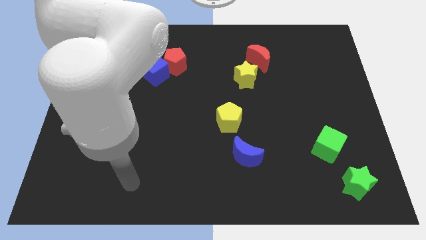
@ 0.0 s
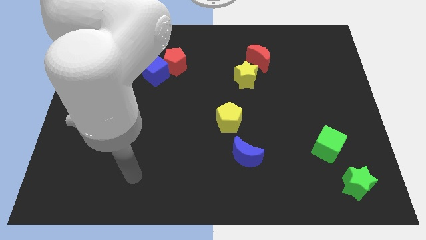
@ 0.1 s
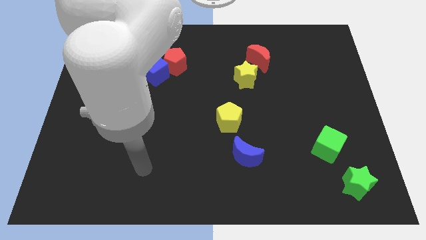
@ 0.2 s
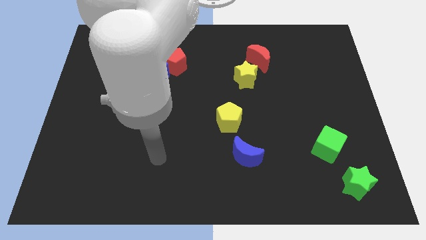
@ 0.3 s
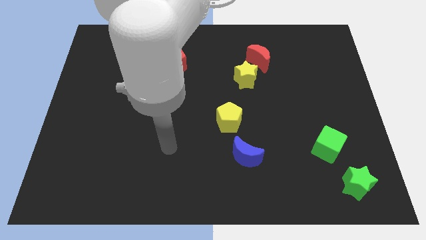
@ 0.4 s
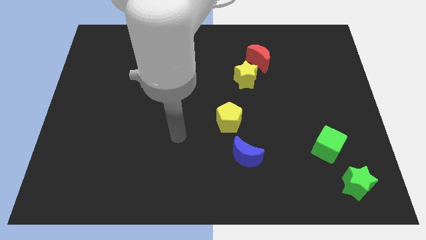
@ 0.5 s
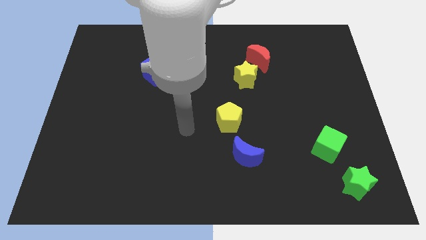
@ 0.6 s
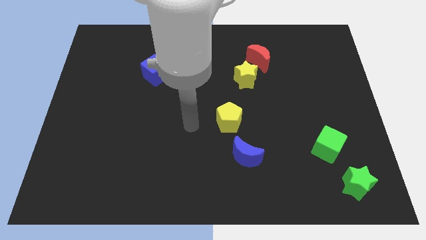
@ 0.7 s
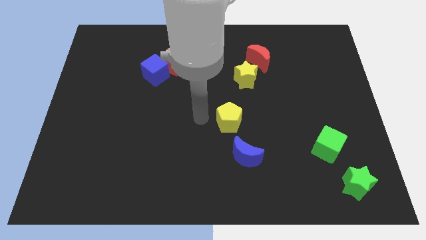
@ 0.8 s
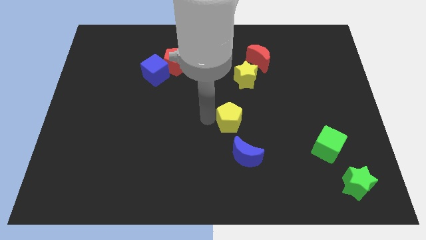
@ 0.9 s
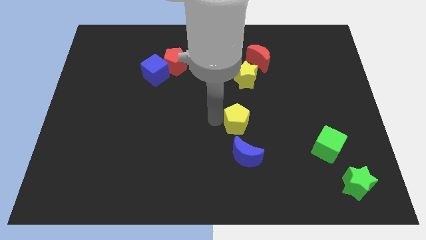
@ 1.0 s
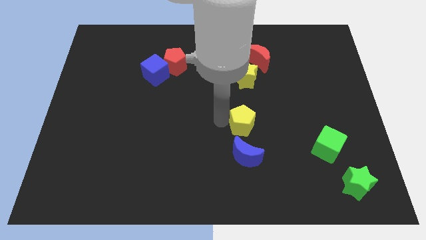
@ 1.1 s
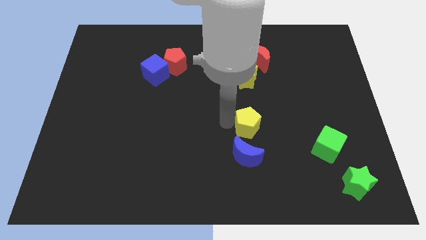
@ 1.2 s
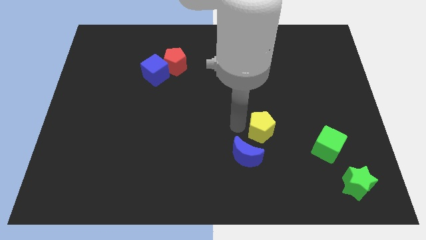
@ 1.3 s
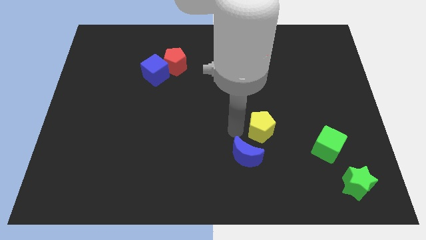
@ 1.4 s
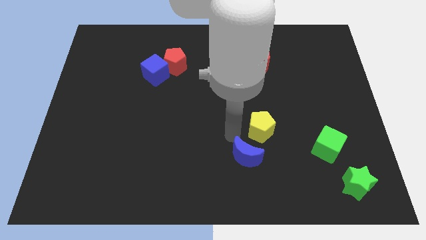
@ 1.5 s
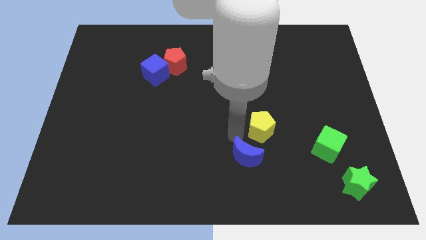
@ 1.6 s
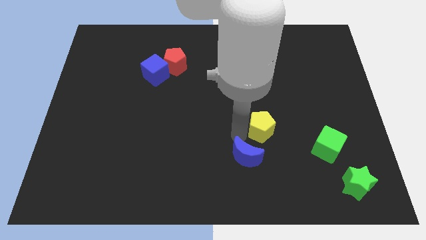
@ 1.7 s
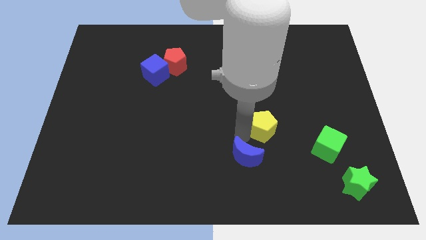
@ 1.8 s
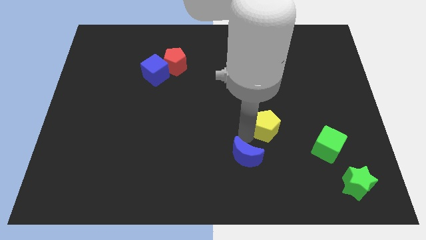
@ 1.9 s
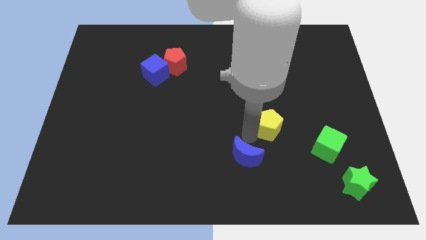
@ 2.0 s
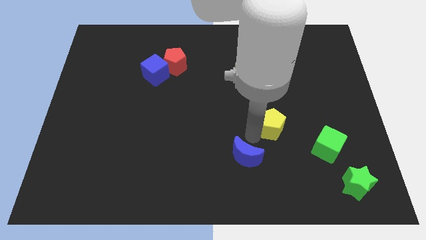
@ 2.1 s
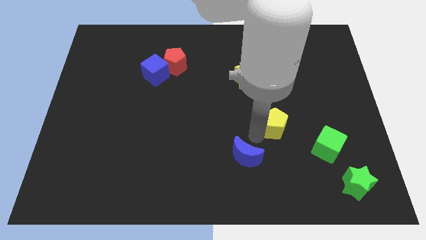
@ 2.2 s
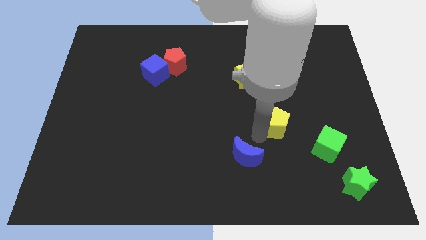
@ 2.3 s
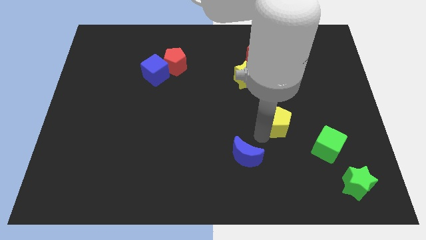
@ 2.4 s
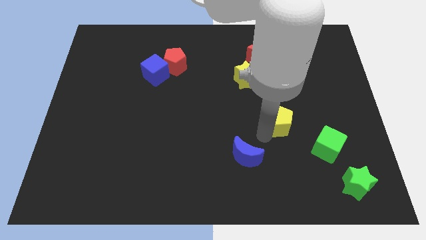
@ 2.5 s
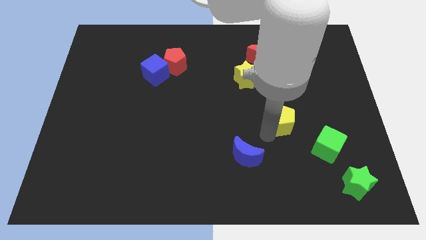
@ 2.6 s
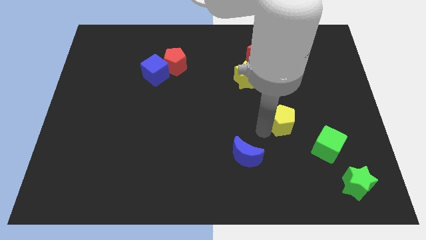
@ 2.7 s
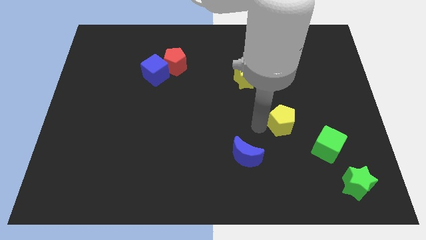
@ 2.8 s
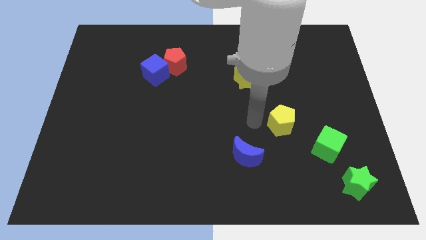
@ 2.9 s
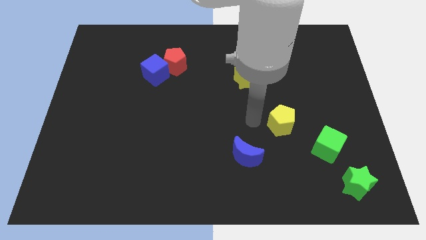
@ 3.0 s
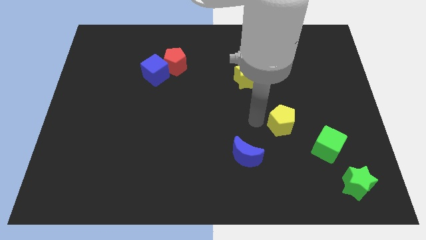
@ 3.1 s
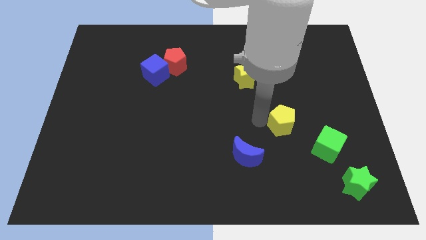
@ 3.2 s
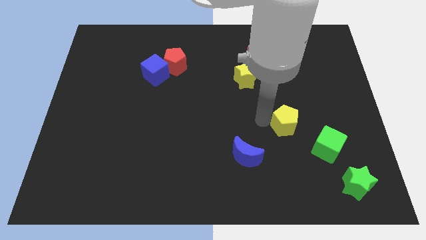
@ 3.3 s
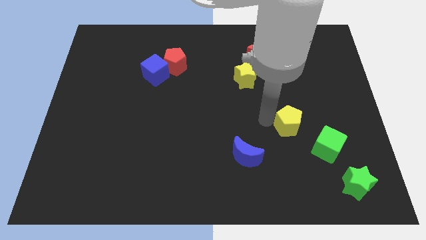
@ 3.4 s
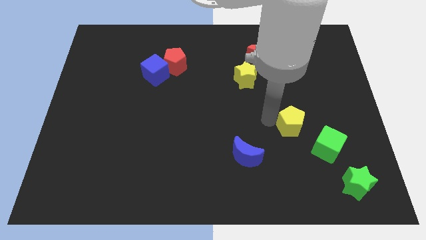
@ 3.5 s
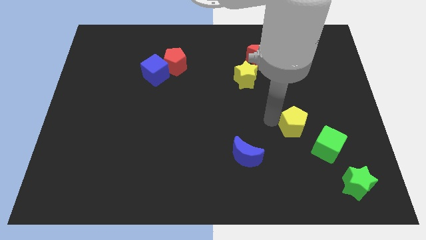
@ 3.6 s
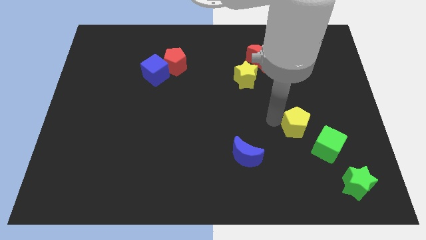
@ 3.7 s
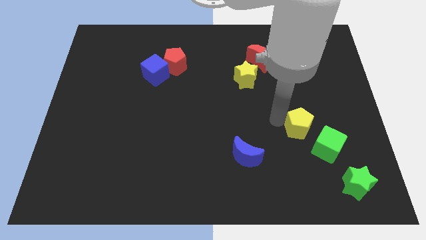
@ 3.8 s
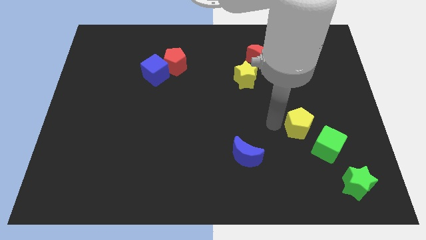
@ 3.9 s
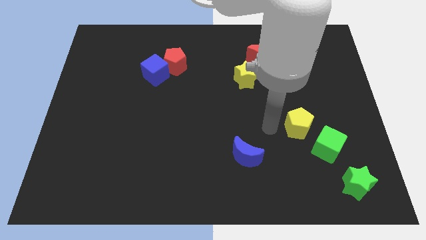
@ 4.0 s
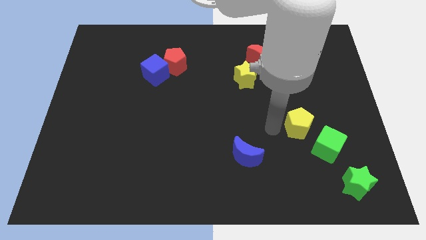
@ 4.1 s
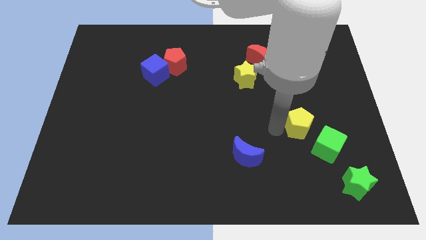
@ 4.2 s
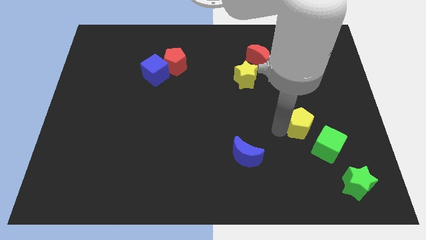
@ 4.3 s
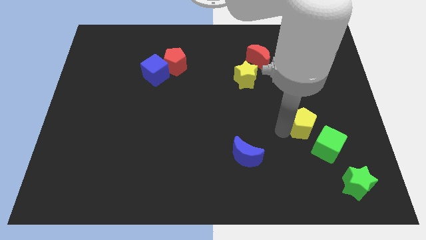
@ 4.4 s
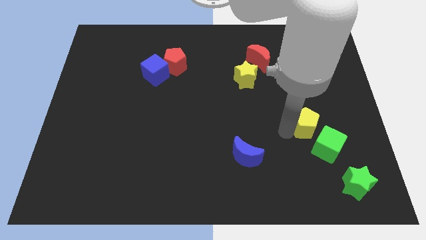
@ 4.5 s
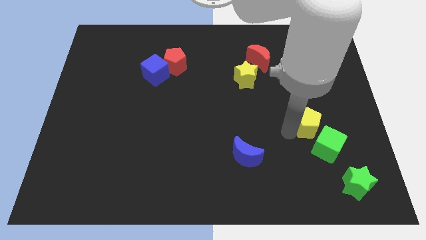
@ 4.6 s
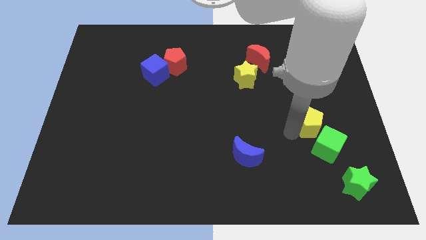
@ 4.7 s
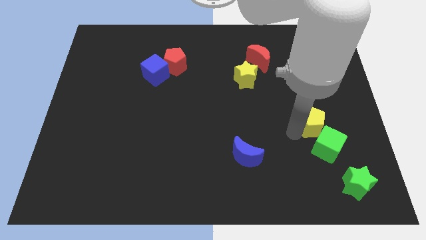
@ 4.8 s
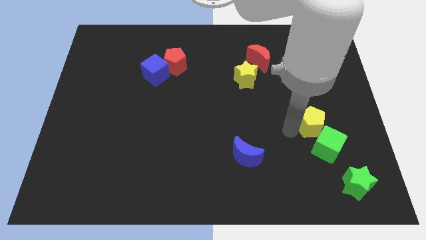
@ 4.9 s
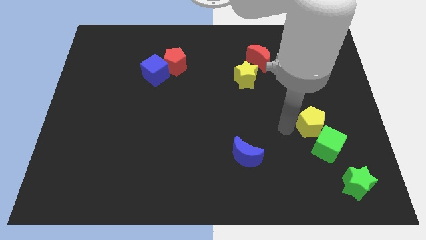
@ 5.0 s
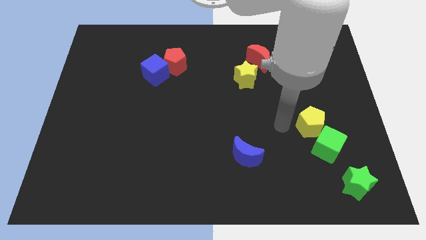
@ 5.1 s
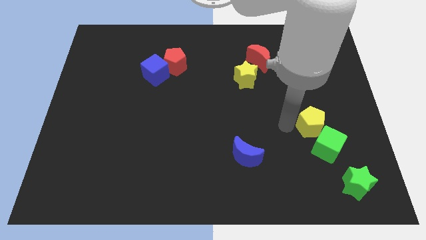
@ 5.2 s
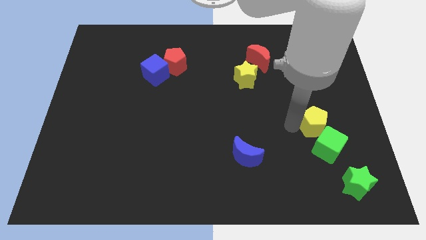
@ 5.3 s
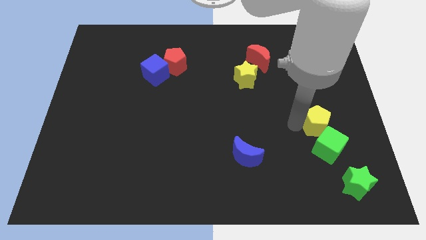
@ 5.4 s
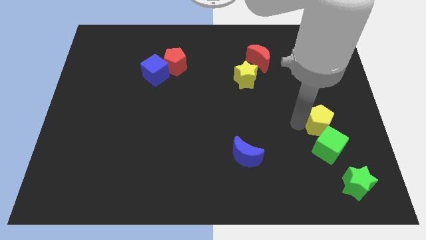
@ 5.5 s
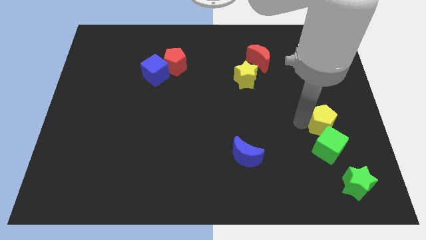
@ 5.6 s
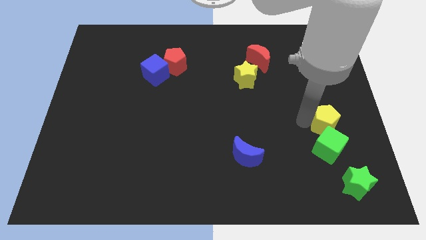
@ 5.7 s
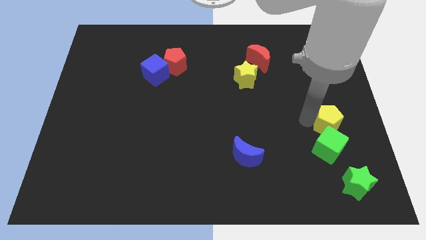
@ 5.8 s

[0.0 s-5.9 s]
push the yellow pentagon to the top of the green star
